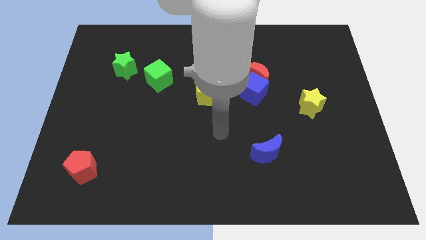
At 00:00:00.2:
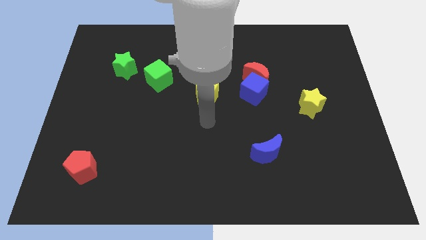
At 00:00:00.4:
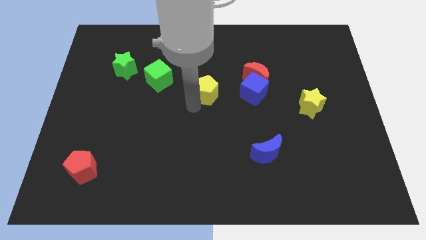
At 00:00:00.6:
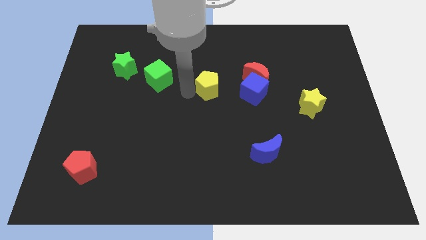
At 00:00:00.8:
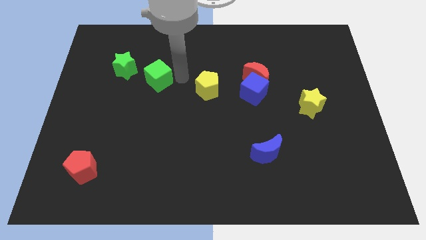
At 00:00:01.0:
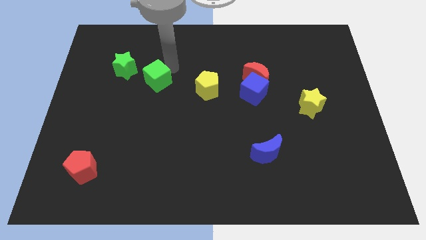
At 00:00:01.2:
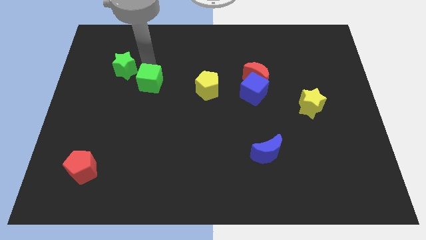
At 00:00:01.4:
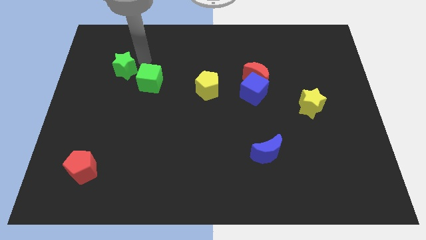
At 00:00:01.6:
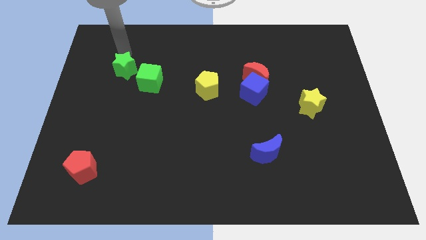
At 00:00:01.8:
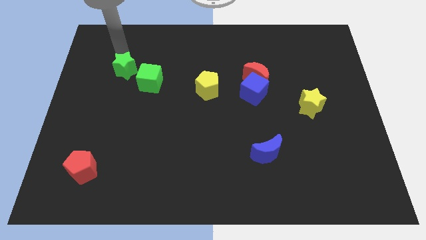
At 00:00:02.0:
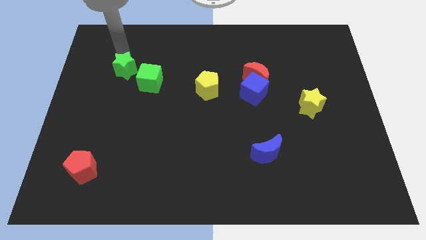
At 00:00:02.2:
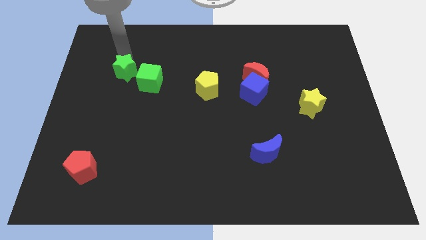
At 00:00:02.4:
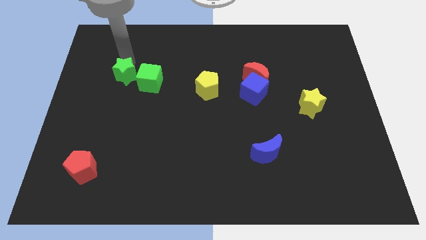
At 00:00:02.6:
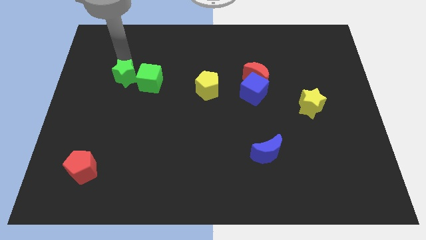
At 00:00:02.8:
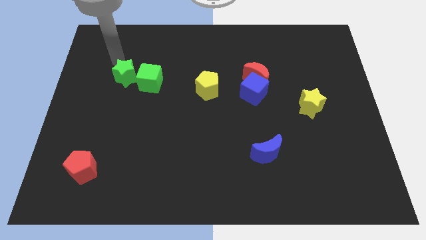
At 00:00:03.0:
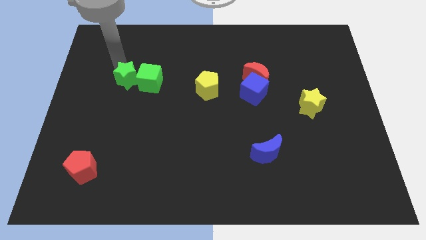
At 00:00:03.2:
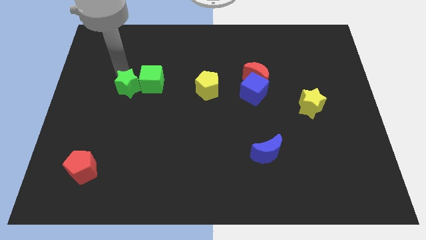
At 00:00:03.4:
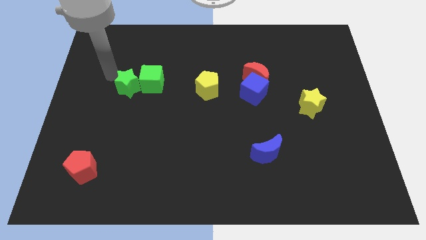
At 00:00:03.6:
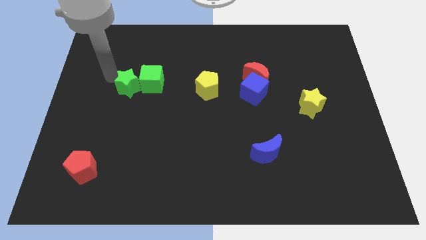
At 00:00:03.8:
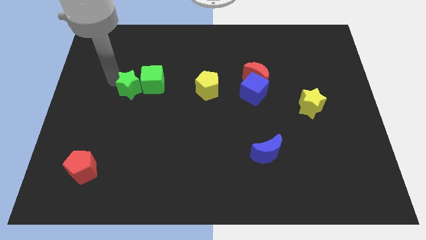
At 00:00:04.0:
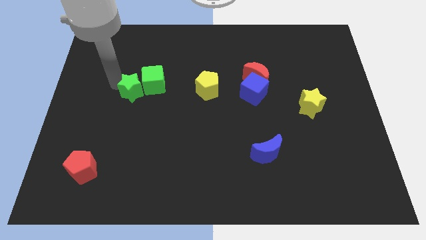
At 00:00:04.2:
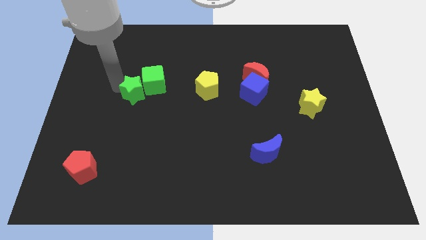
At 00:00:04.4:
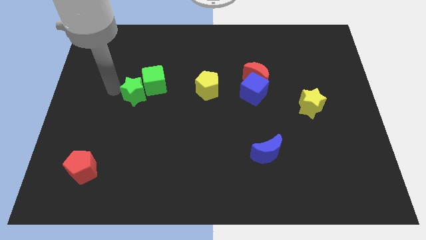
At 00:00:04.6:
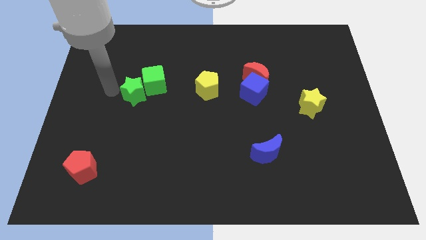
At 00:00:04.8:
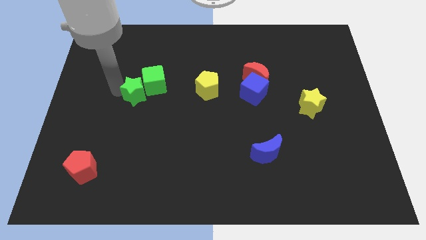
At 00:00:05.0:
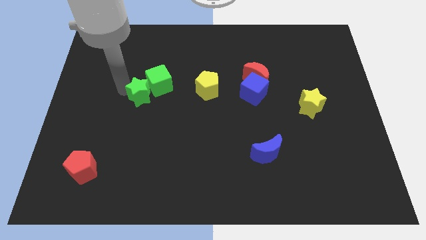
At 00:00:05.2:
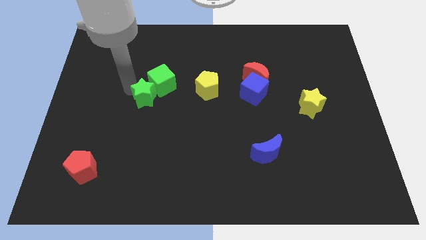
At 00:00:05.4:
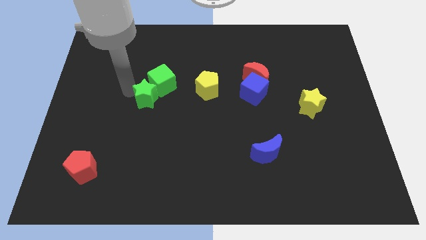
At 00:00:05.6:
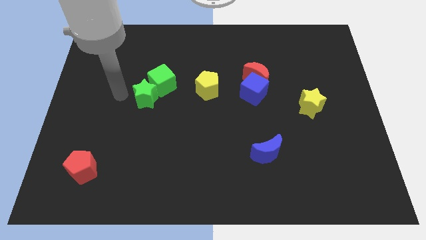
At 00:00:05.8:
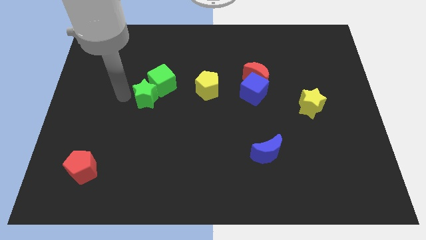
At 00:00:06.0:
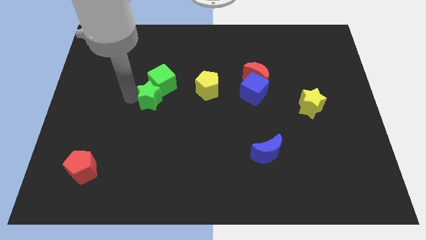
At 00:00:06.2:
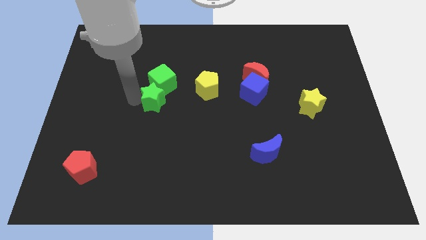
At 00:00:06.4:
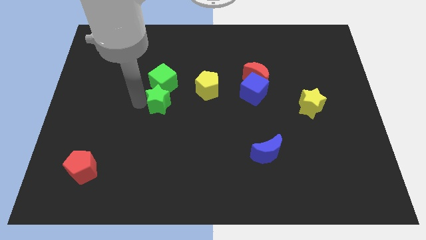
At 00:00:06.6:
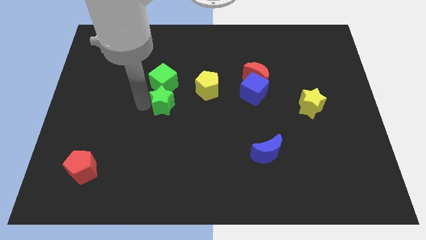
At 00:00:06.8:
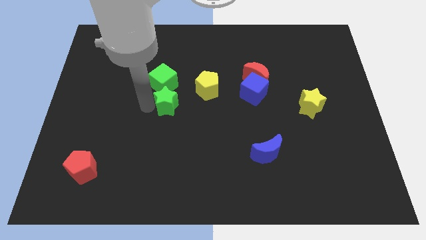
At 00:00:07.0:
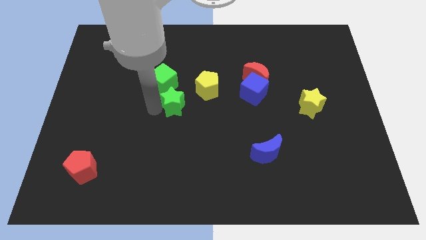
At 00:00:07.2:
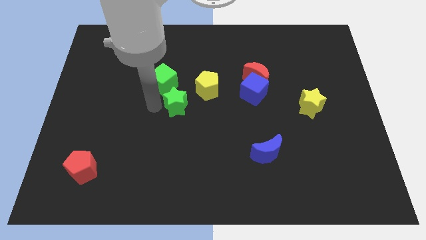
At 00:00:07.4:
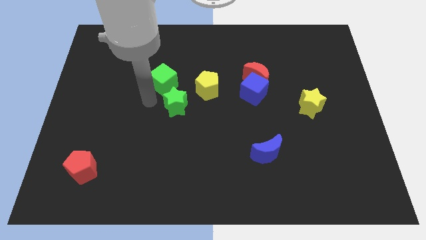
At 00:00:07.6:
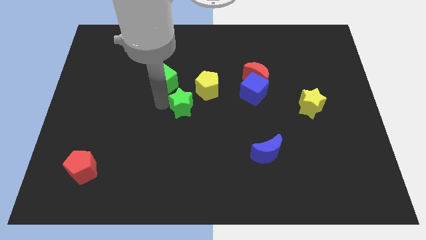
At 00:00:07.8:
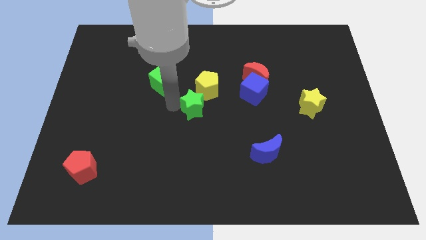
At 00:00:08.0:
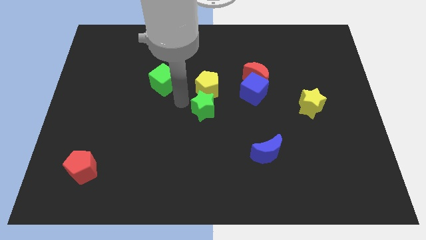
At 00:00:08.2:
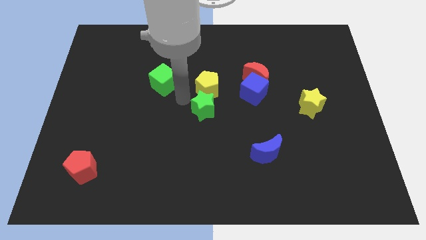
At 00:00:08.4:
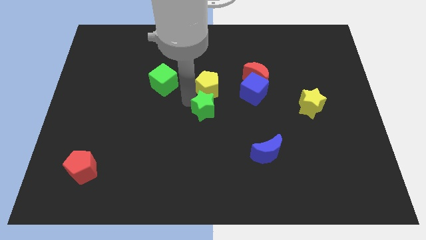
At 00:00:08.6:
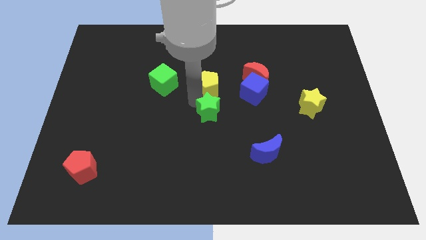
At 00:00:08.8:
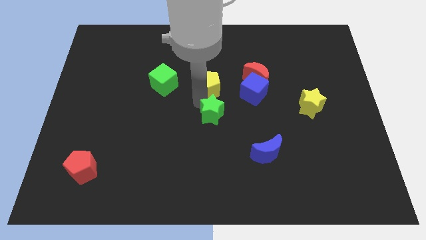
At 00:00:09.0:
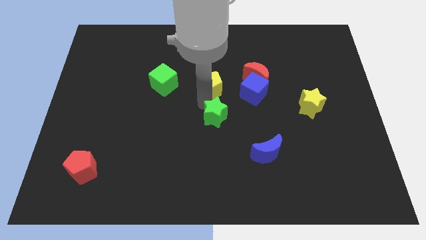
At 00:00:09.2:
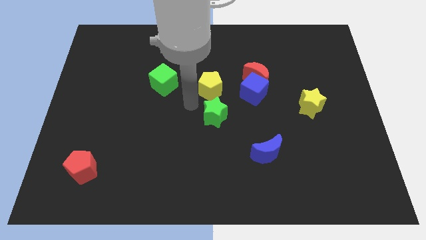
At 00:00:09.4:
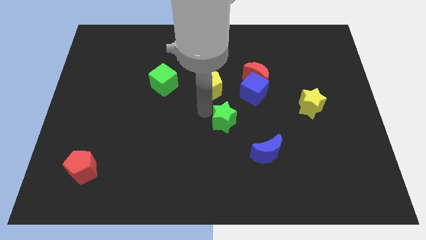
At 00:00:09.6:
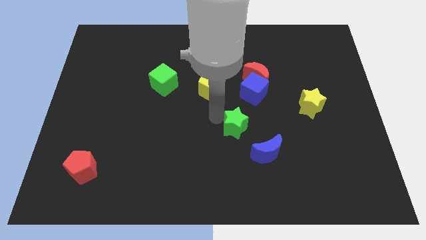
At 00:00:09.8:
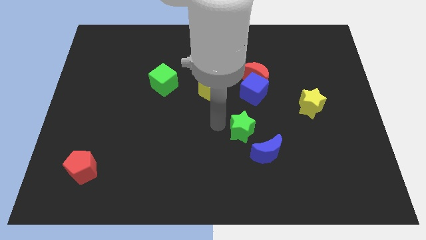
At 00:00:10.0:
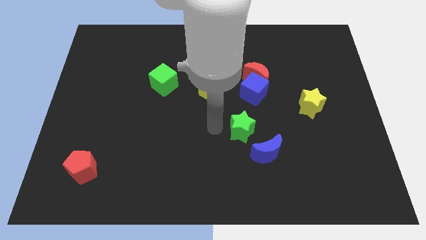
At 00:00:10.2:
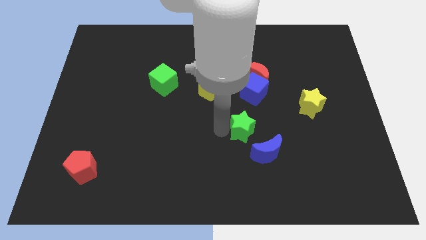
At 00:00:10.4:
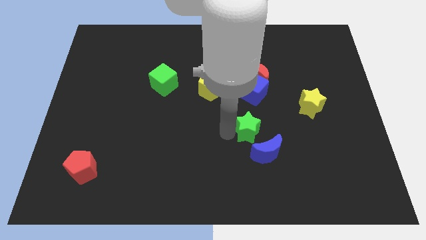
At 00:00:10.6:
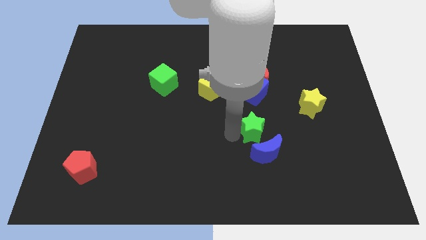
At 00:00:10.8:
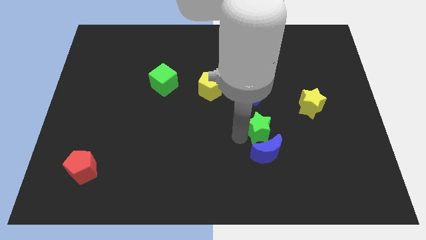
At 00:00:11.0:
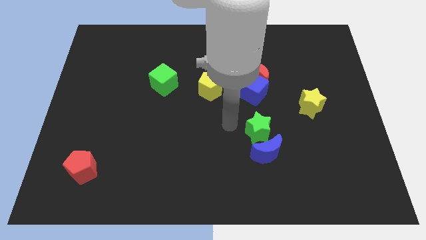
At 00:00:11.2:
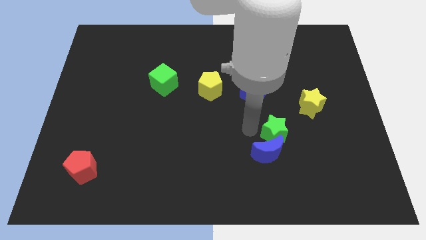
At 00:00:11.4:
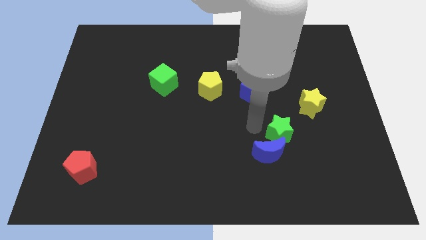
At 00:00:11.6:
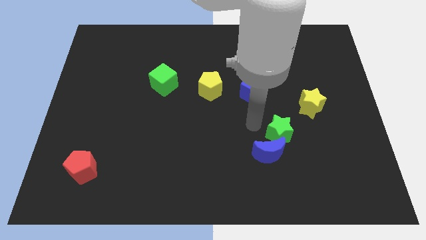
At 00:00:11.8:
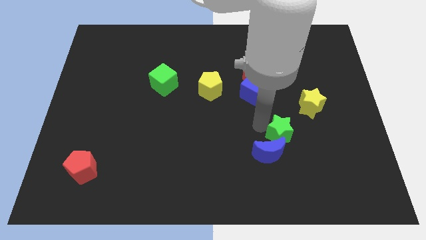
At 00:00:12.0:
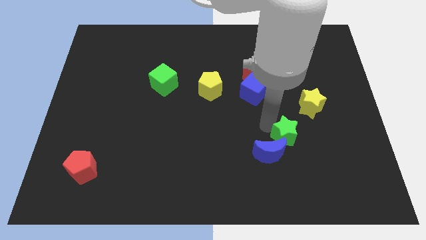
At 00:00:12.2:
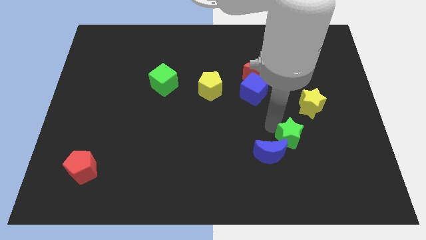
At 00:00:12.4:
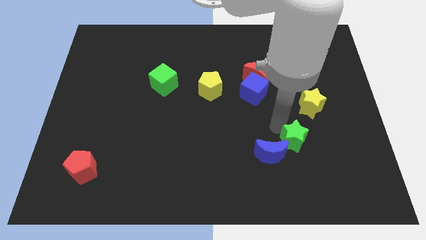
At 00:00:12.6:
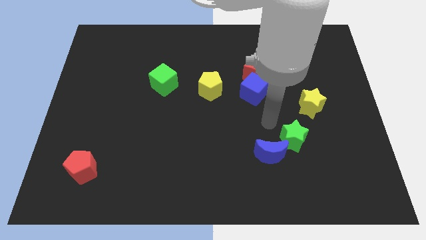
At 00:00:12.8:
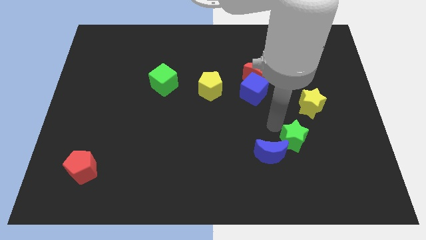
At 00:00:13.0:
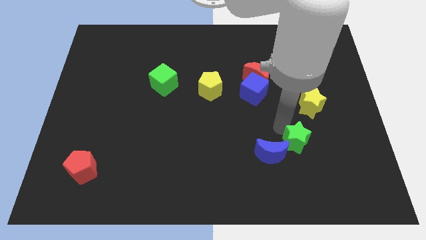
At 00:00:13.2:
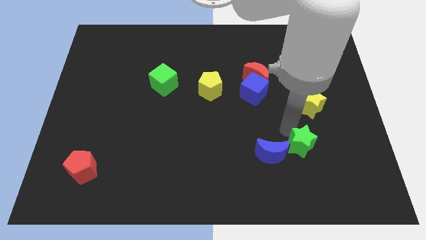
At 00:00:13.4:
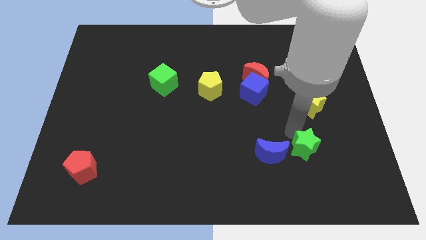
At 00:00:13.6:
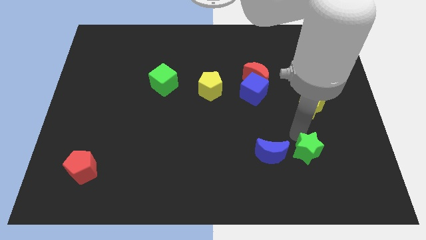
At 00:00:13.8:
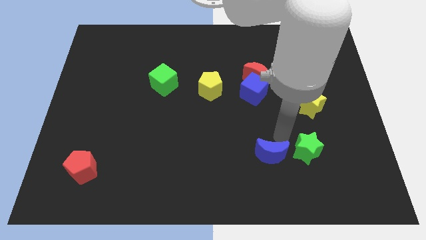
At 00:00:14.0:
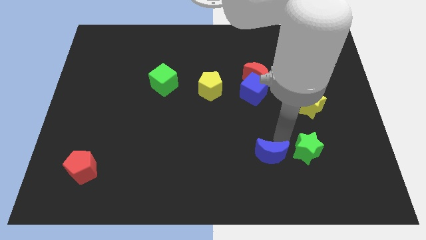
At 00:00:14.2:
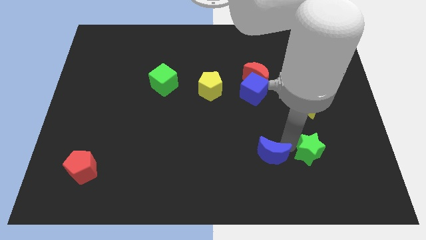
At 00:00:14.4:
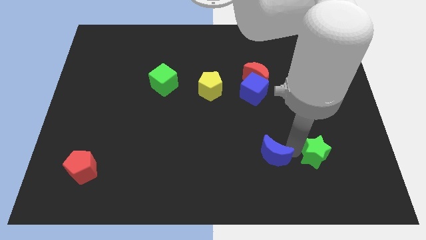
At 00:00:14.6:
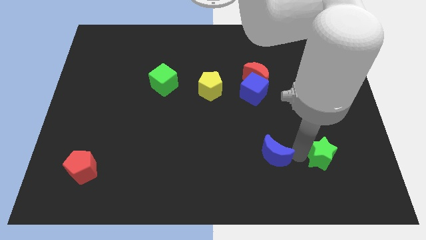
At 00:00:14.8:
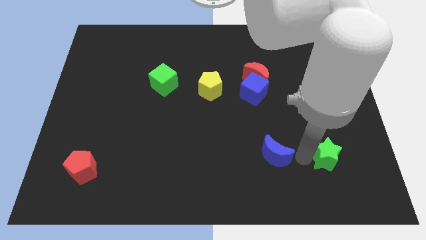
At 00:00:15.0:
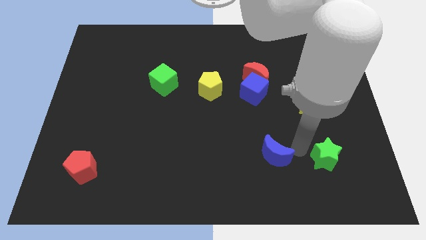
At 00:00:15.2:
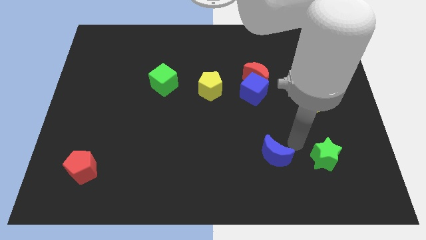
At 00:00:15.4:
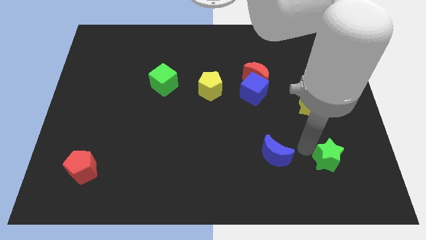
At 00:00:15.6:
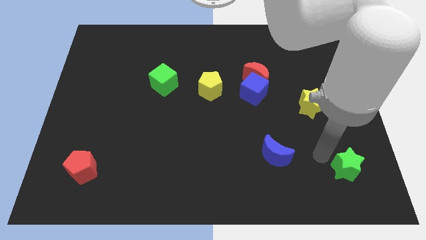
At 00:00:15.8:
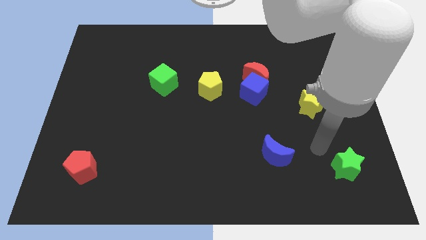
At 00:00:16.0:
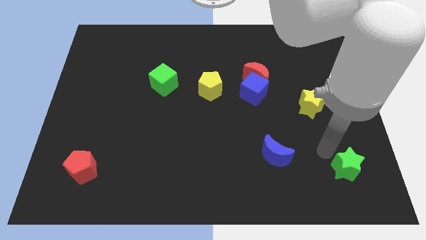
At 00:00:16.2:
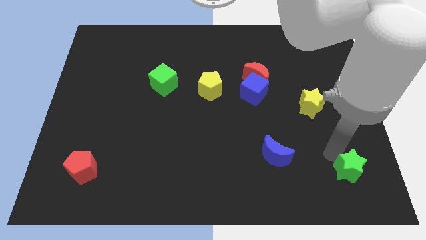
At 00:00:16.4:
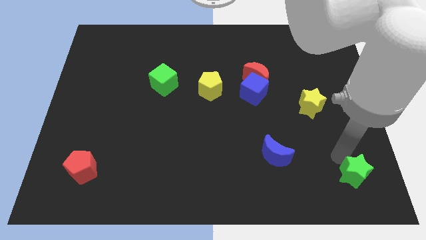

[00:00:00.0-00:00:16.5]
slide the green star to the bottom right corner
